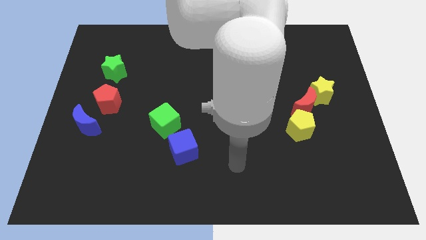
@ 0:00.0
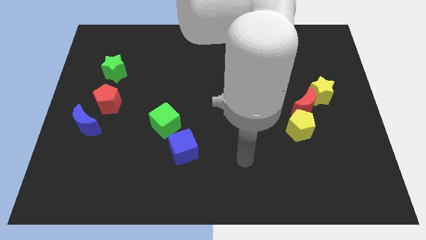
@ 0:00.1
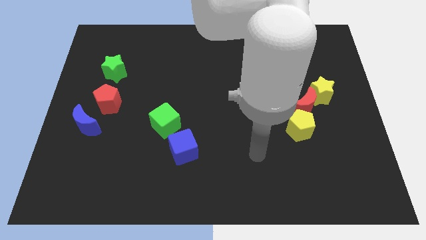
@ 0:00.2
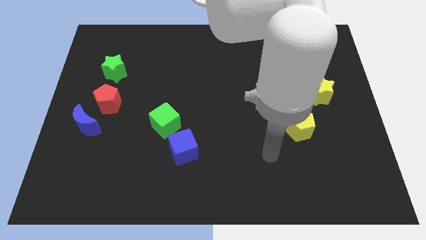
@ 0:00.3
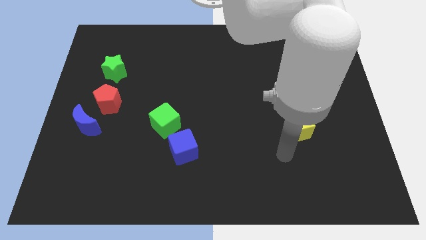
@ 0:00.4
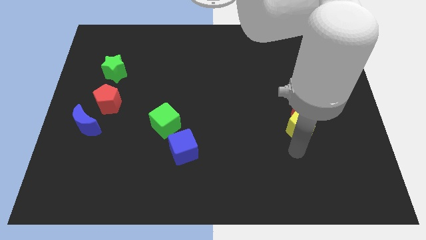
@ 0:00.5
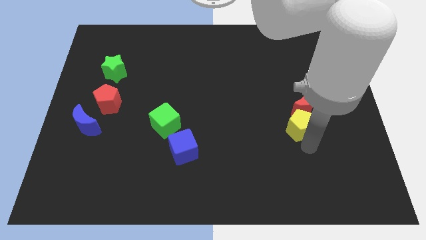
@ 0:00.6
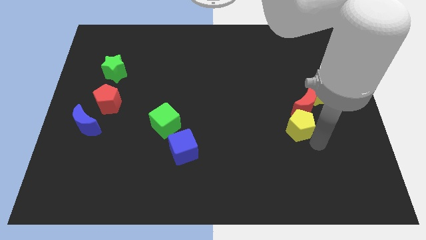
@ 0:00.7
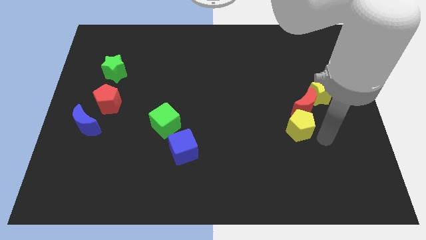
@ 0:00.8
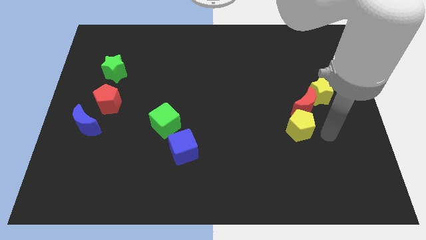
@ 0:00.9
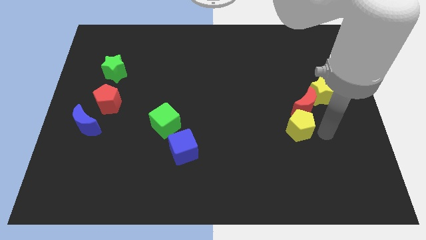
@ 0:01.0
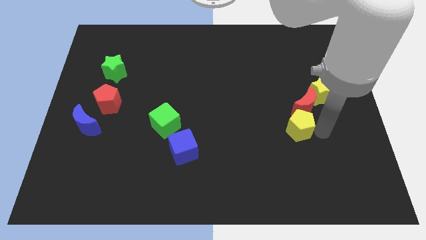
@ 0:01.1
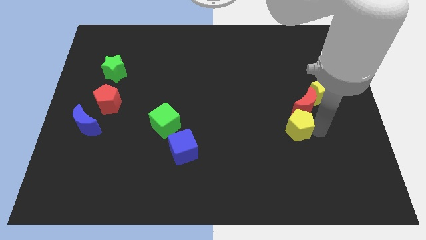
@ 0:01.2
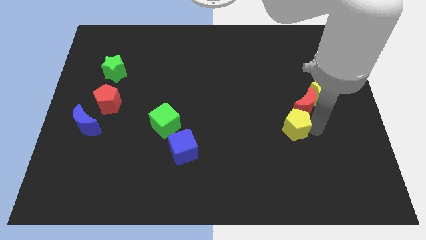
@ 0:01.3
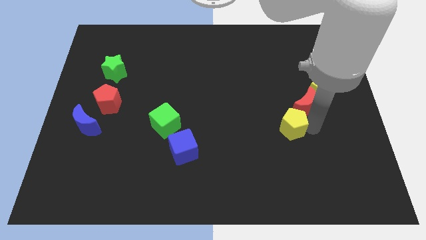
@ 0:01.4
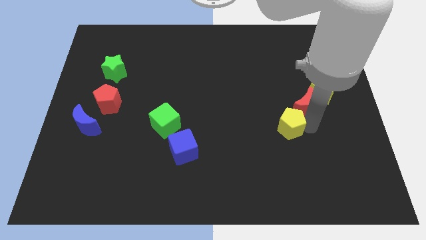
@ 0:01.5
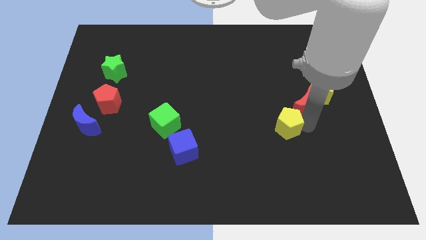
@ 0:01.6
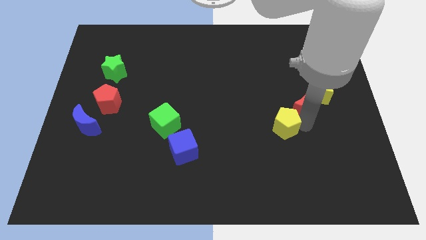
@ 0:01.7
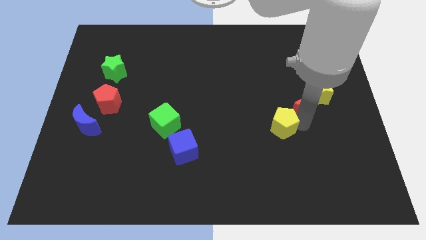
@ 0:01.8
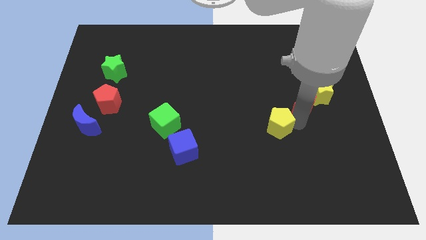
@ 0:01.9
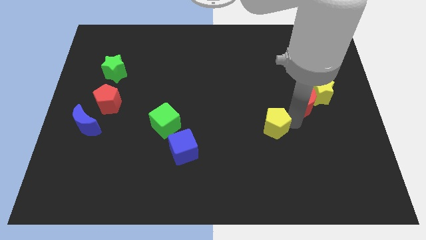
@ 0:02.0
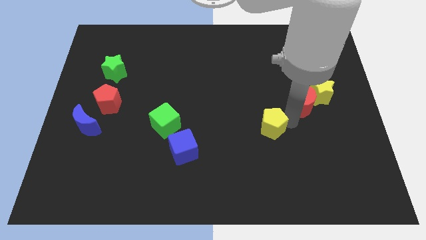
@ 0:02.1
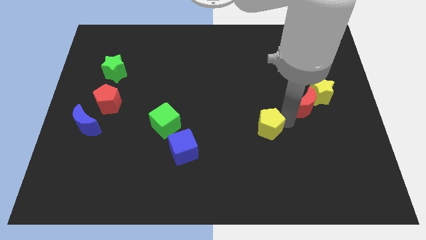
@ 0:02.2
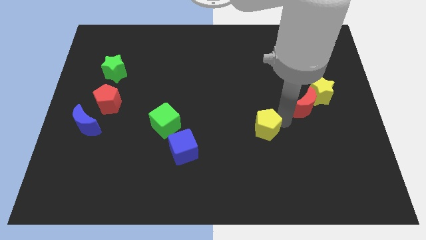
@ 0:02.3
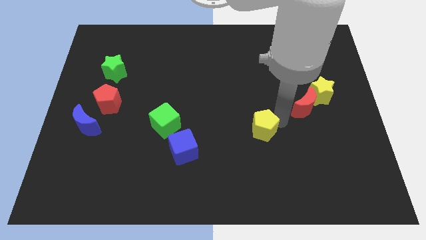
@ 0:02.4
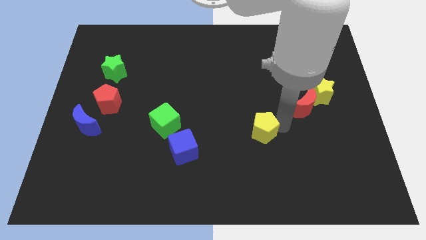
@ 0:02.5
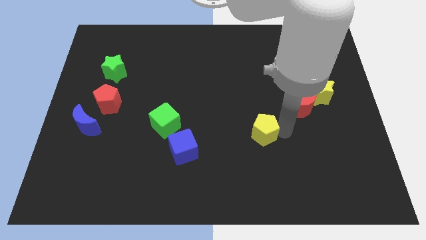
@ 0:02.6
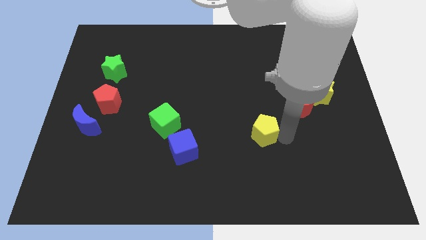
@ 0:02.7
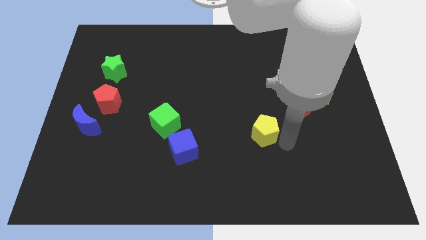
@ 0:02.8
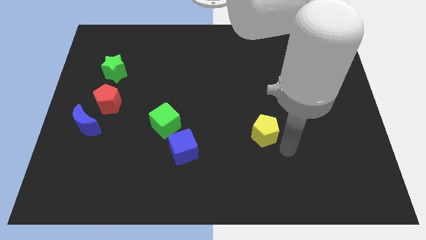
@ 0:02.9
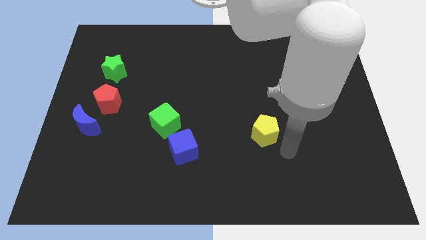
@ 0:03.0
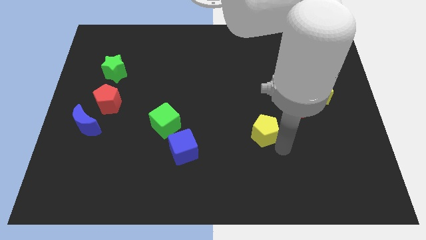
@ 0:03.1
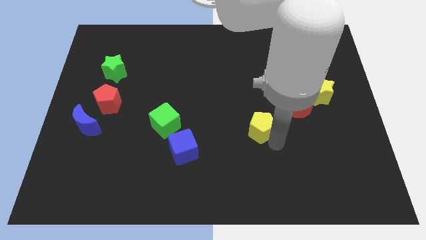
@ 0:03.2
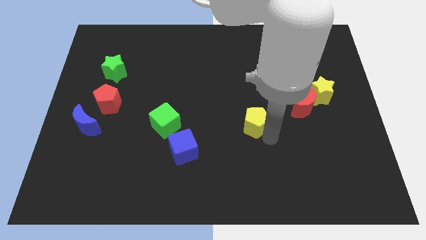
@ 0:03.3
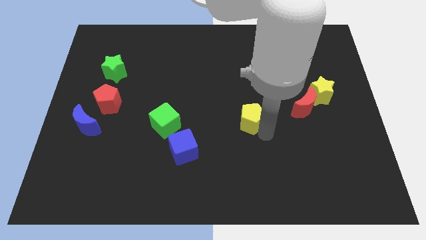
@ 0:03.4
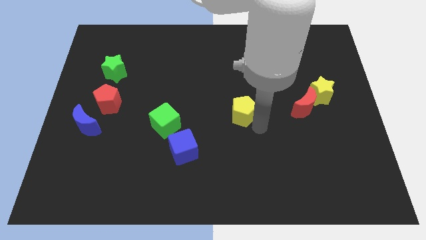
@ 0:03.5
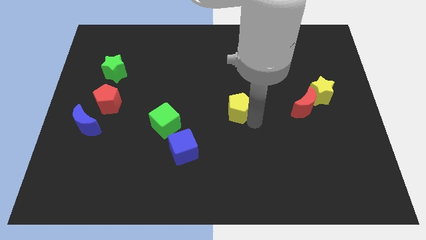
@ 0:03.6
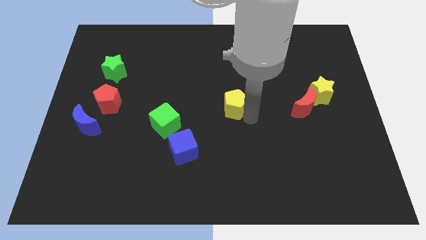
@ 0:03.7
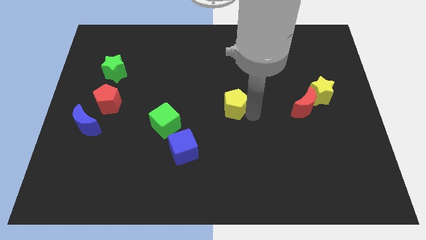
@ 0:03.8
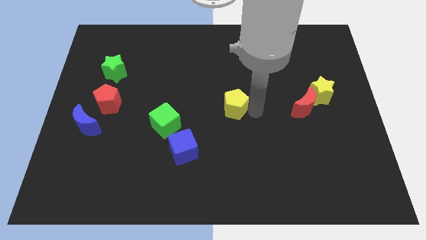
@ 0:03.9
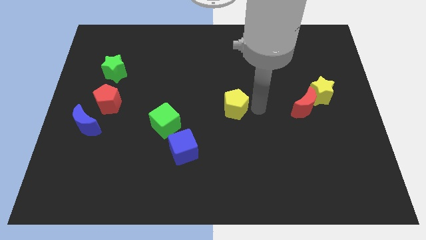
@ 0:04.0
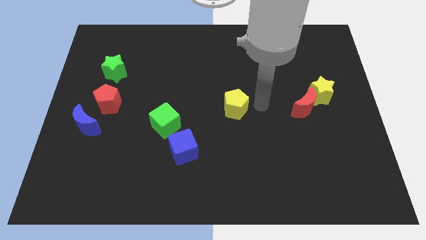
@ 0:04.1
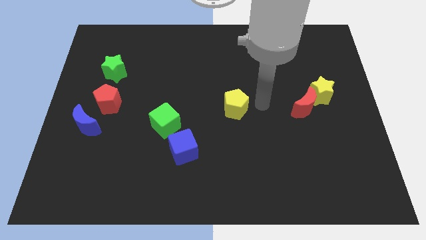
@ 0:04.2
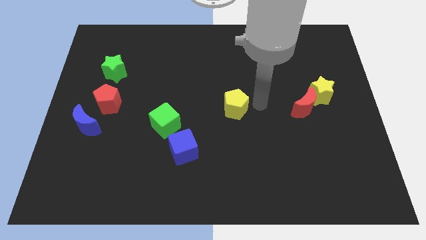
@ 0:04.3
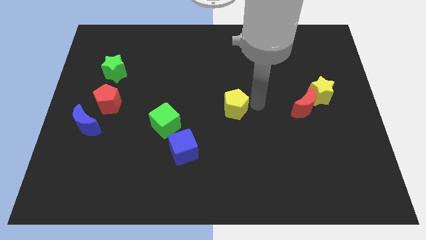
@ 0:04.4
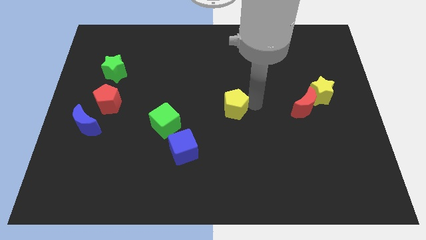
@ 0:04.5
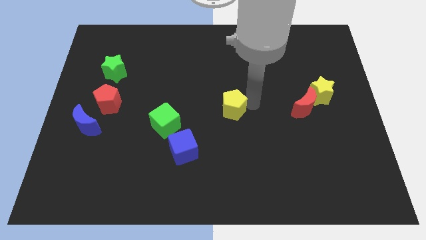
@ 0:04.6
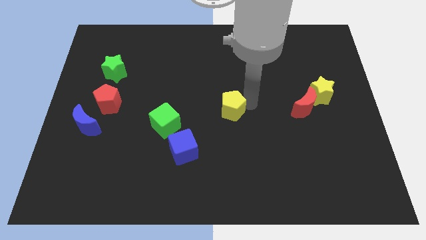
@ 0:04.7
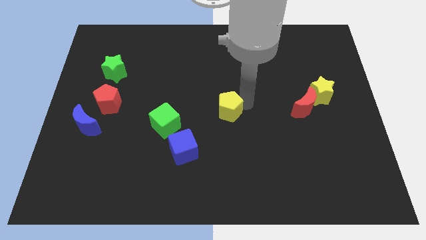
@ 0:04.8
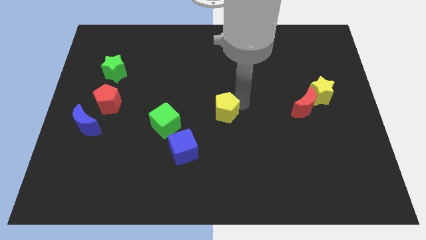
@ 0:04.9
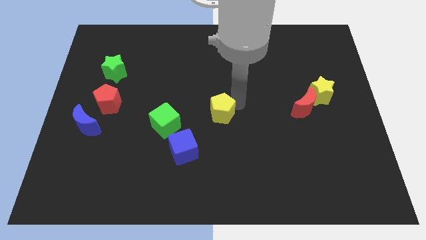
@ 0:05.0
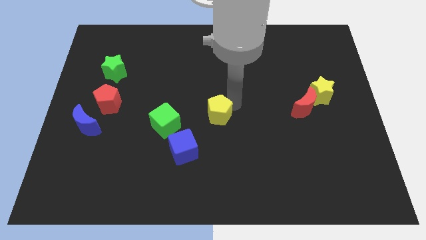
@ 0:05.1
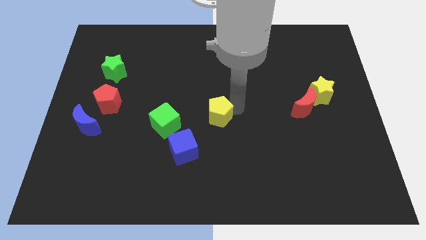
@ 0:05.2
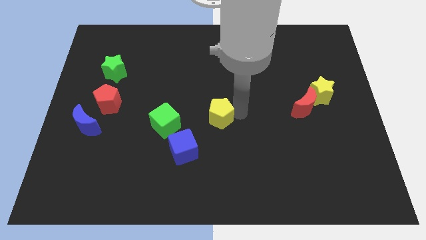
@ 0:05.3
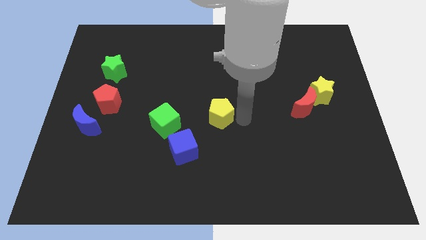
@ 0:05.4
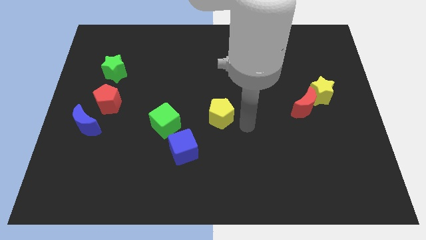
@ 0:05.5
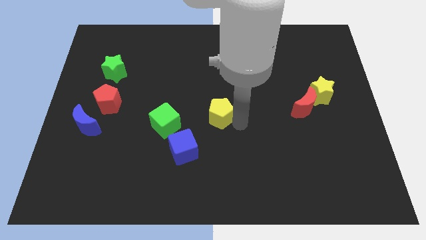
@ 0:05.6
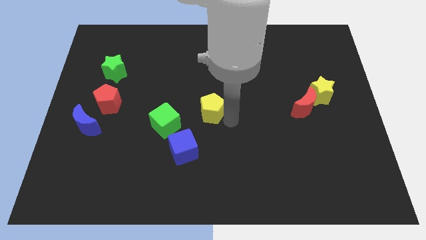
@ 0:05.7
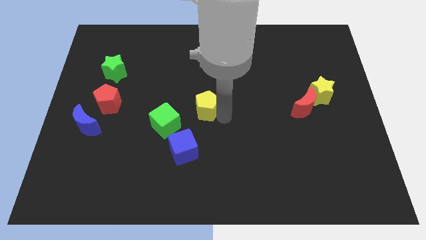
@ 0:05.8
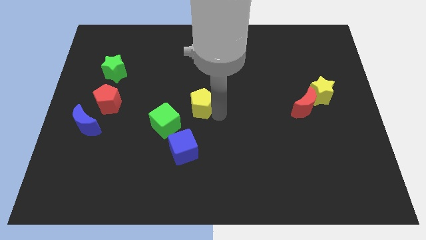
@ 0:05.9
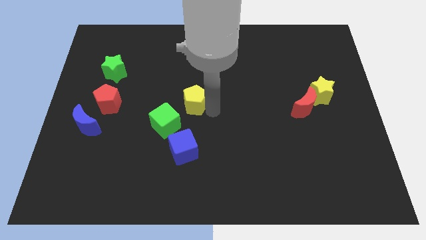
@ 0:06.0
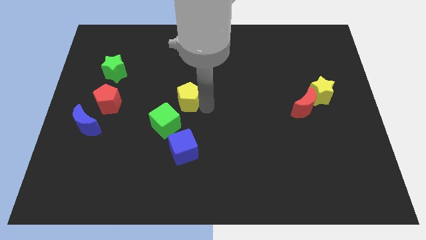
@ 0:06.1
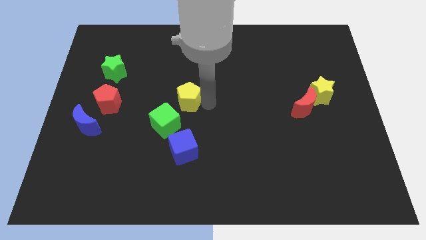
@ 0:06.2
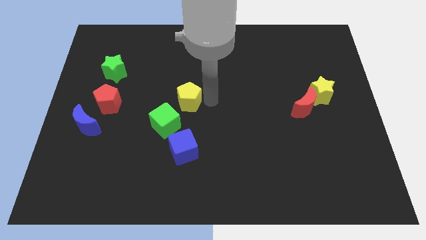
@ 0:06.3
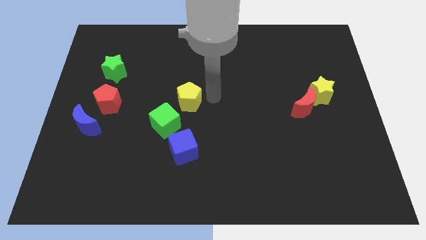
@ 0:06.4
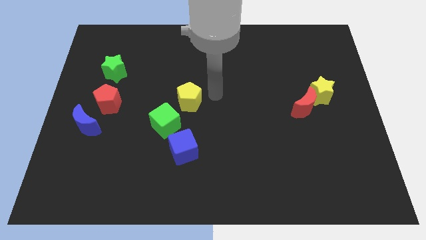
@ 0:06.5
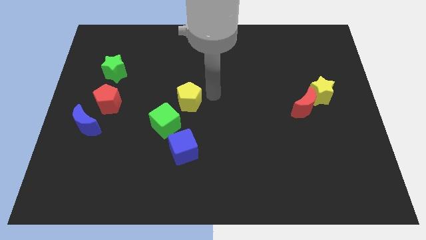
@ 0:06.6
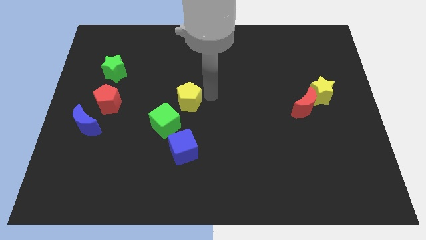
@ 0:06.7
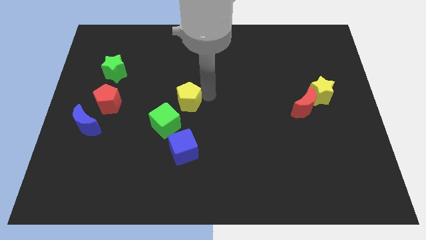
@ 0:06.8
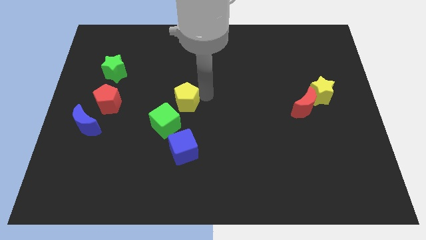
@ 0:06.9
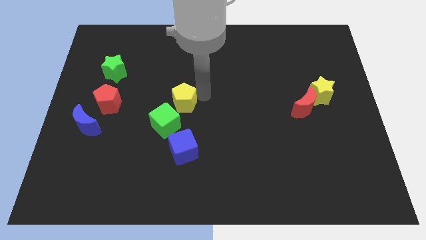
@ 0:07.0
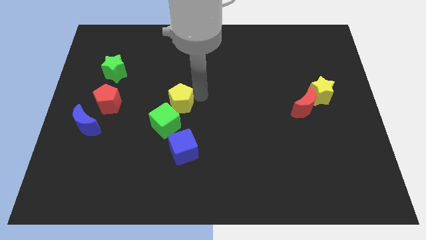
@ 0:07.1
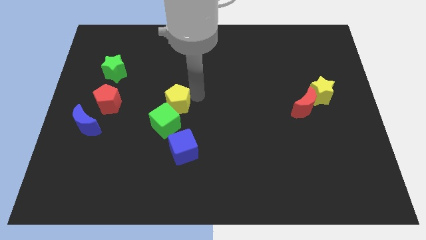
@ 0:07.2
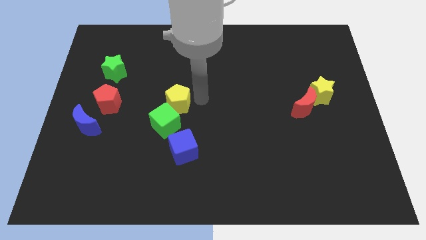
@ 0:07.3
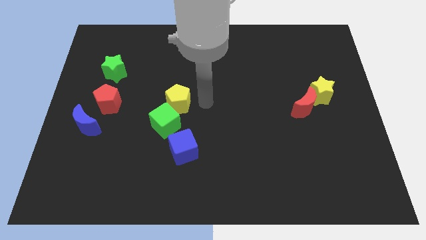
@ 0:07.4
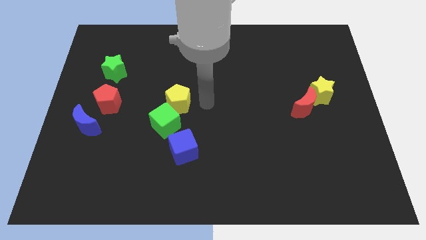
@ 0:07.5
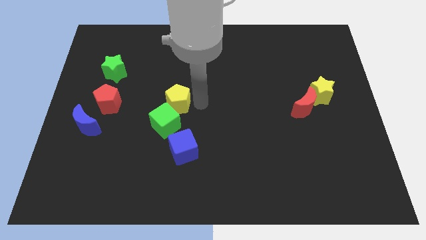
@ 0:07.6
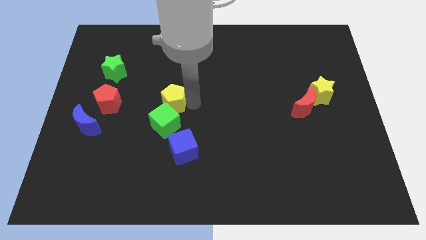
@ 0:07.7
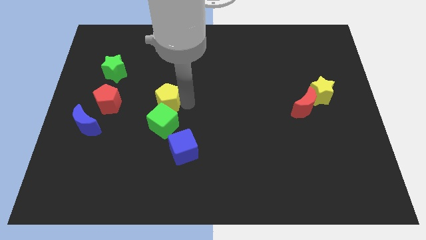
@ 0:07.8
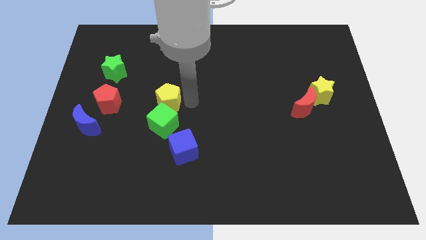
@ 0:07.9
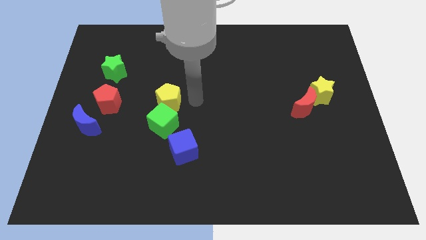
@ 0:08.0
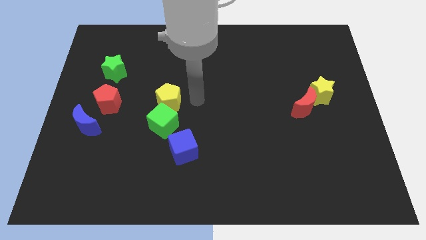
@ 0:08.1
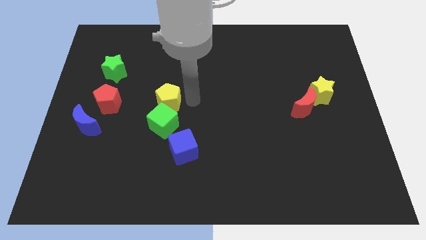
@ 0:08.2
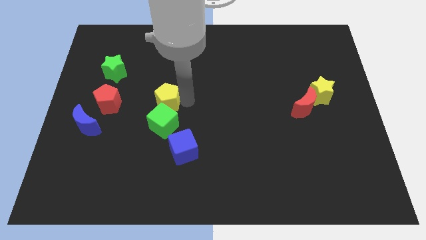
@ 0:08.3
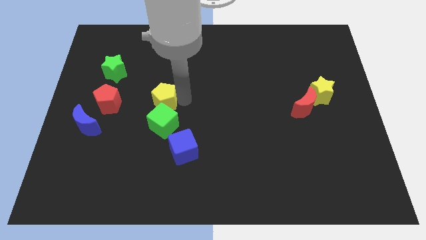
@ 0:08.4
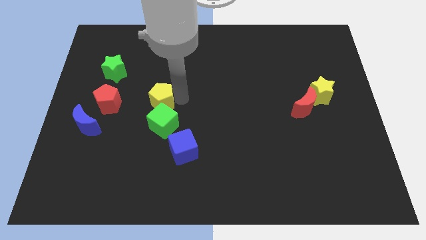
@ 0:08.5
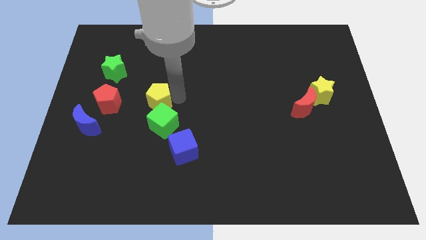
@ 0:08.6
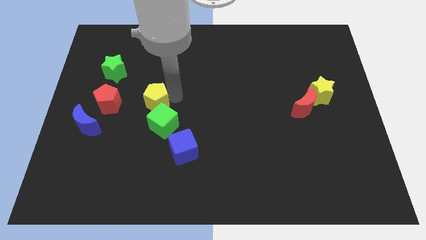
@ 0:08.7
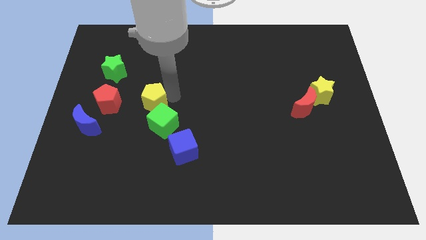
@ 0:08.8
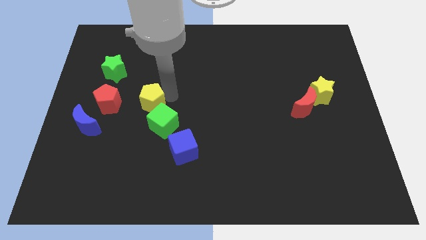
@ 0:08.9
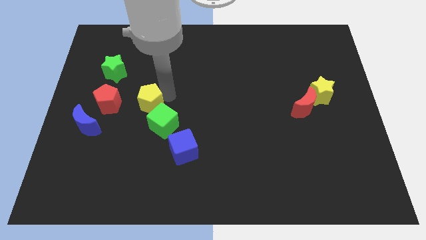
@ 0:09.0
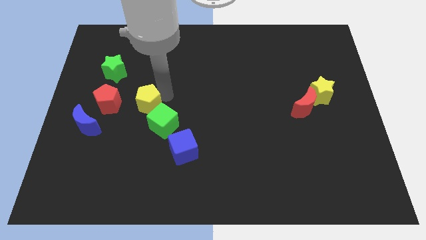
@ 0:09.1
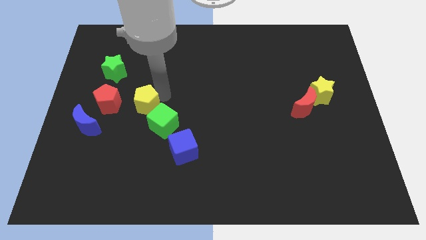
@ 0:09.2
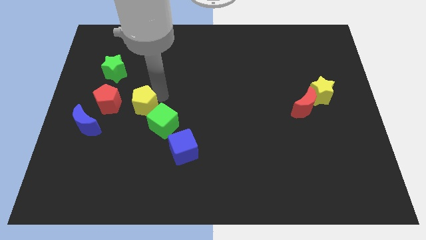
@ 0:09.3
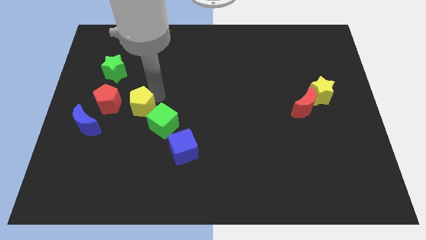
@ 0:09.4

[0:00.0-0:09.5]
push the yellow pentagon to the bottom right of the red pentagon
